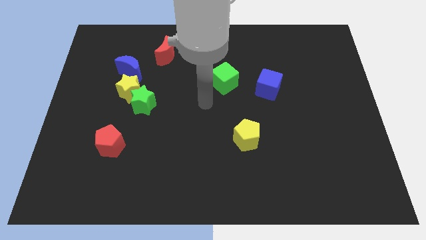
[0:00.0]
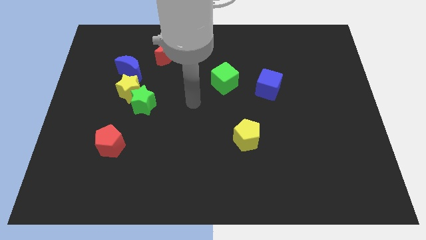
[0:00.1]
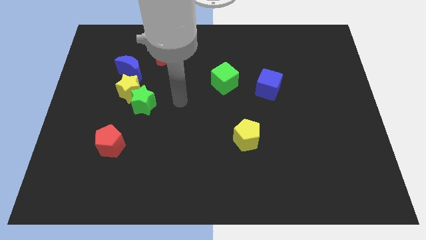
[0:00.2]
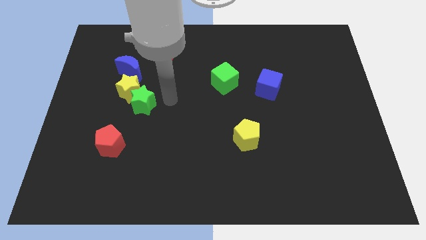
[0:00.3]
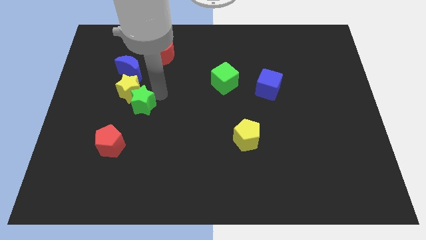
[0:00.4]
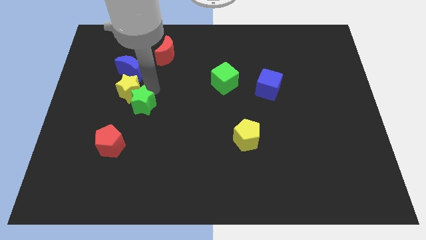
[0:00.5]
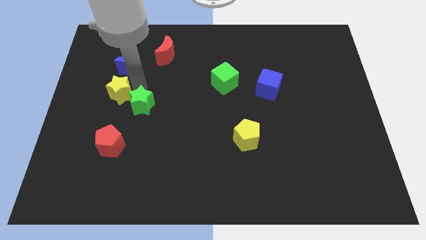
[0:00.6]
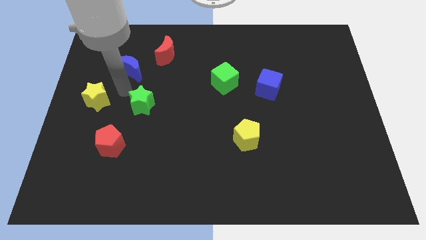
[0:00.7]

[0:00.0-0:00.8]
separate the green star from the yellow star

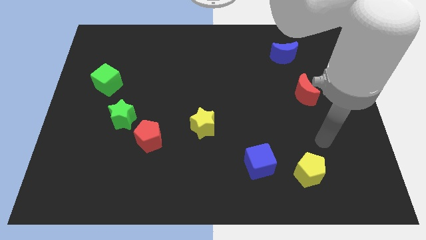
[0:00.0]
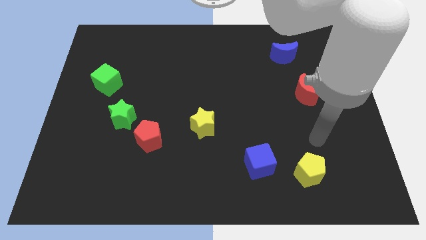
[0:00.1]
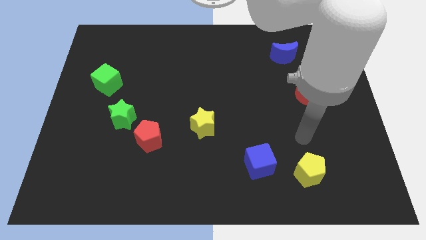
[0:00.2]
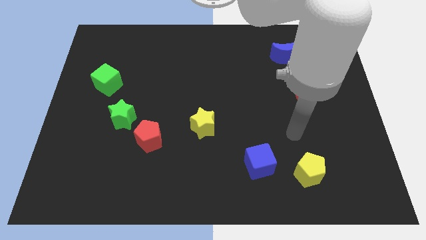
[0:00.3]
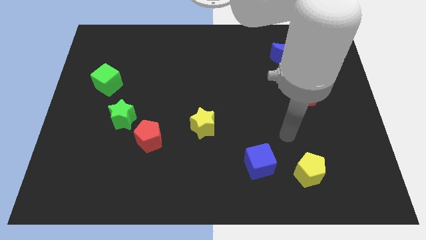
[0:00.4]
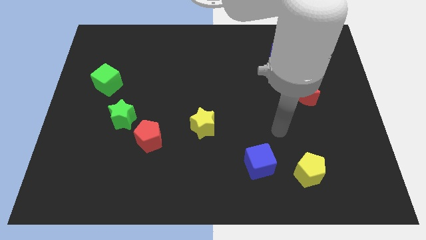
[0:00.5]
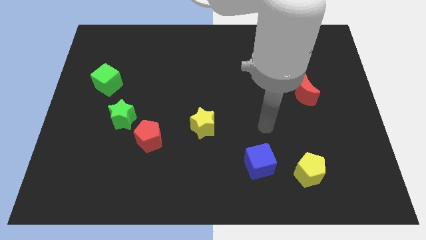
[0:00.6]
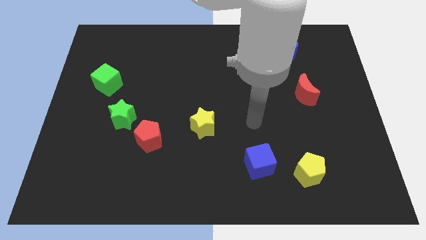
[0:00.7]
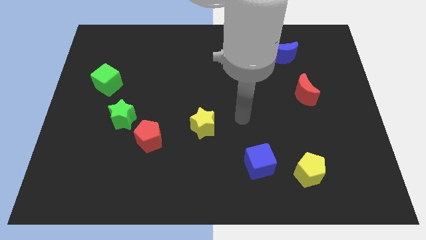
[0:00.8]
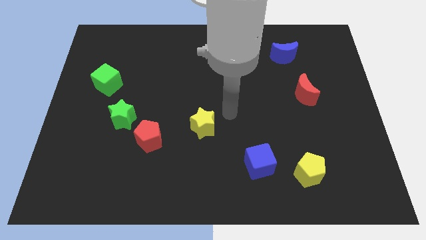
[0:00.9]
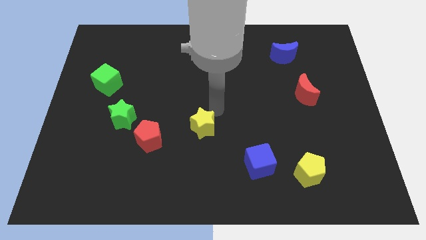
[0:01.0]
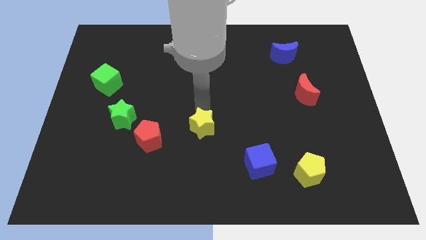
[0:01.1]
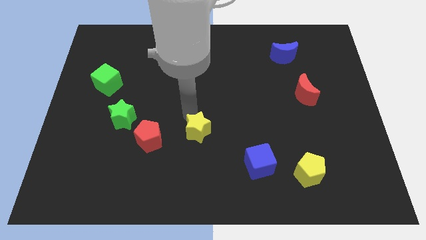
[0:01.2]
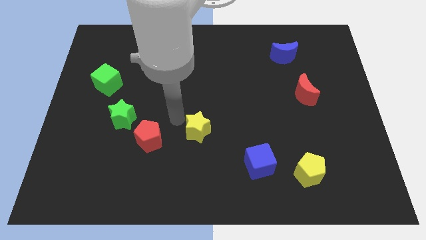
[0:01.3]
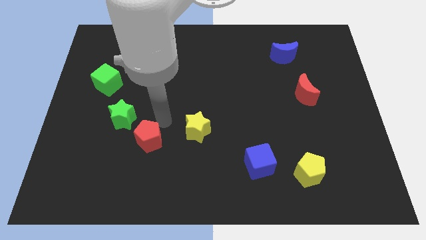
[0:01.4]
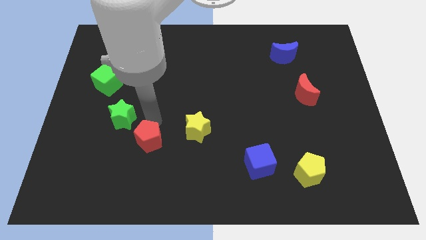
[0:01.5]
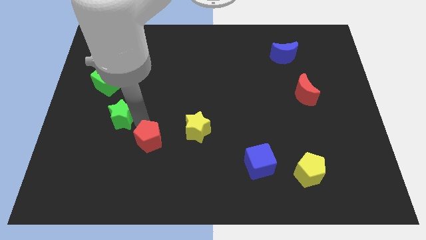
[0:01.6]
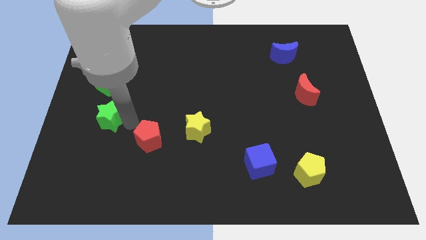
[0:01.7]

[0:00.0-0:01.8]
move the red pentagon away from the green star

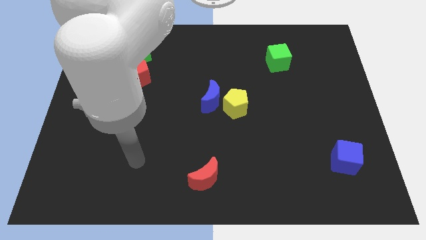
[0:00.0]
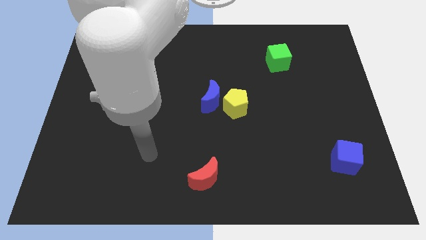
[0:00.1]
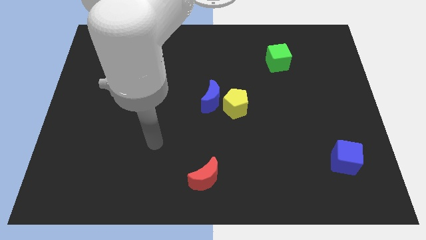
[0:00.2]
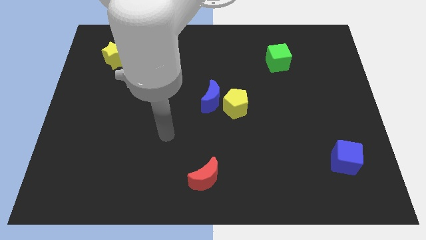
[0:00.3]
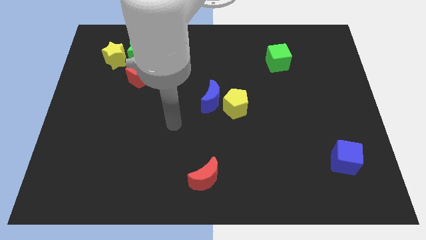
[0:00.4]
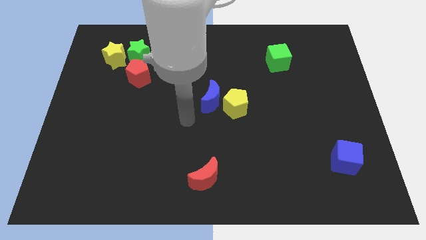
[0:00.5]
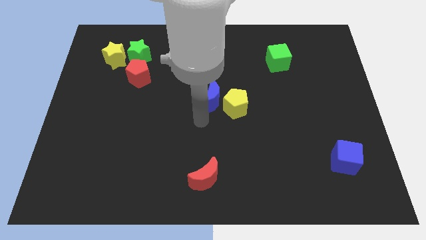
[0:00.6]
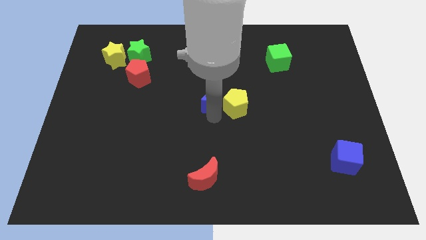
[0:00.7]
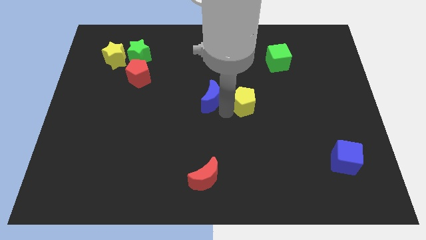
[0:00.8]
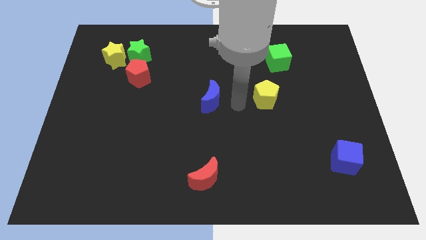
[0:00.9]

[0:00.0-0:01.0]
separate the blue moon from the yellow pentagon

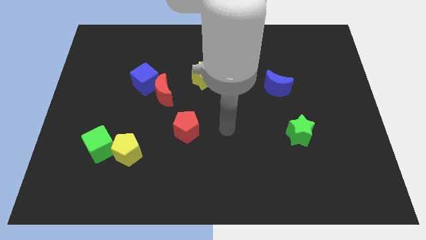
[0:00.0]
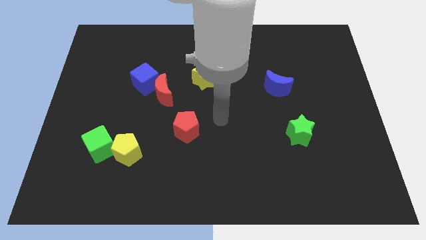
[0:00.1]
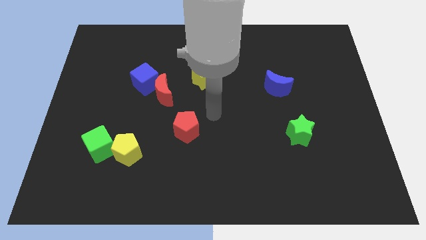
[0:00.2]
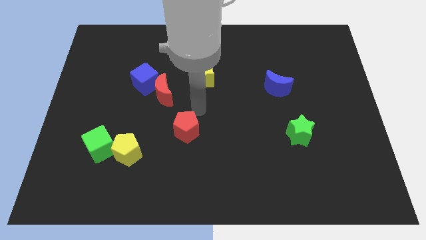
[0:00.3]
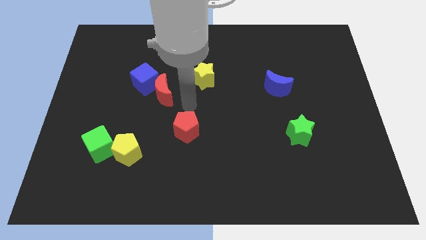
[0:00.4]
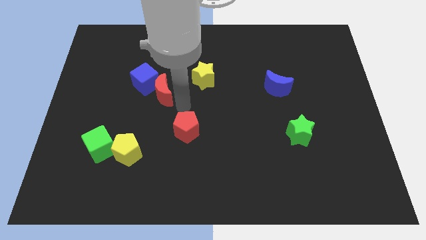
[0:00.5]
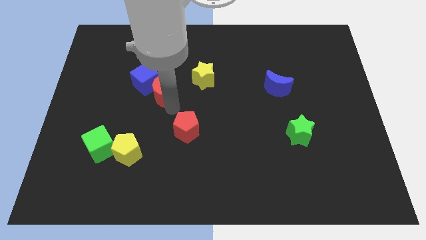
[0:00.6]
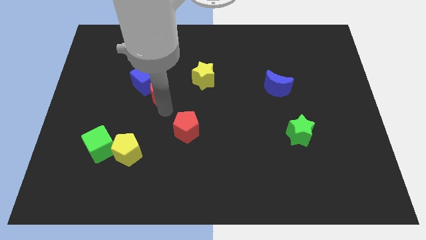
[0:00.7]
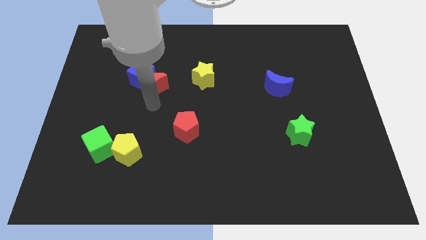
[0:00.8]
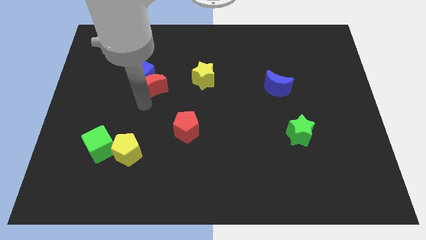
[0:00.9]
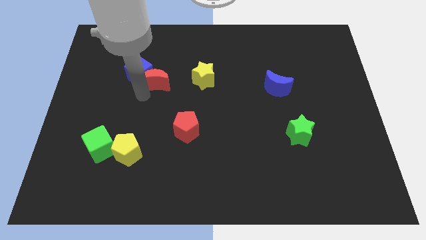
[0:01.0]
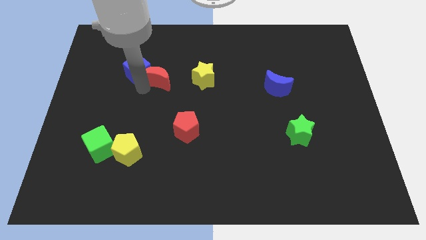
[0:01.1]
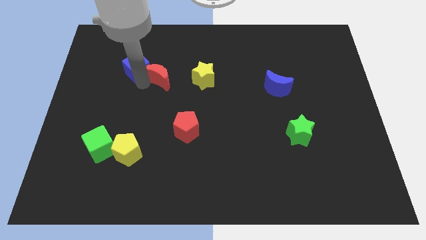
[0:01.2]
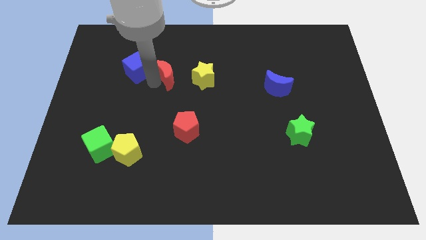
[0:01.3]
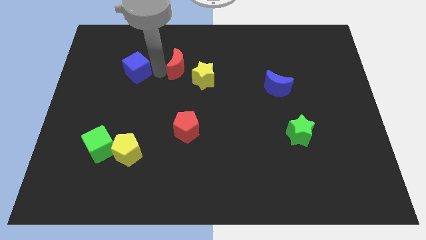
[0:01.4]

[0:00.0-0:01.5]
move the red moon away from the blue cube

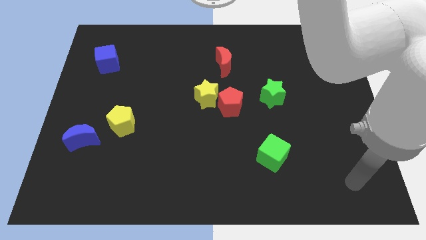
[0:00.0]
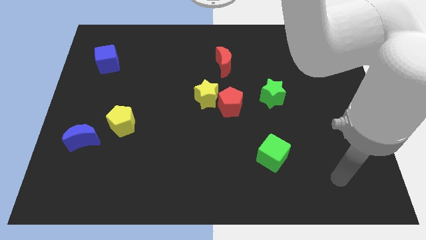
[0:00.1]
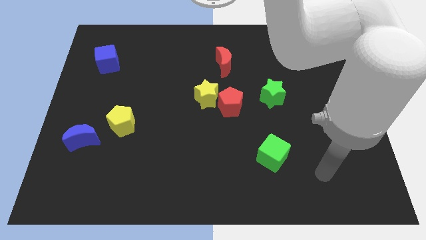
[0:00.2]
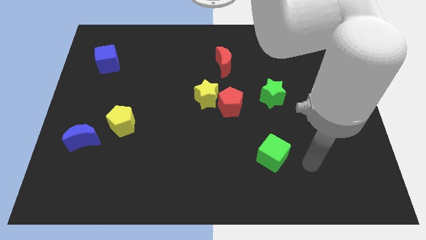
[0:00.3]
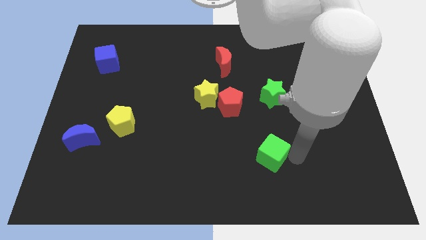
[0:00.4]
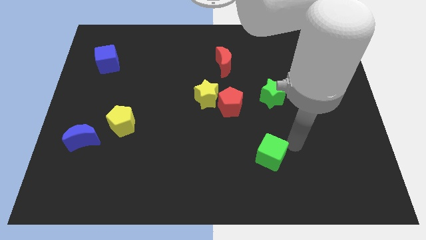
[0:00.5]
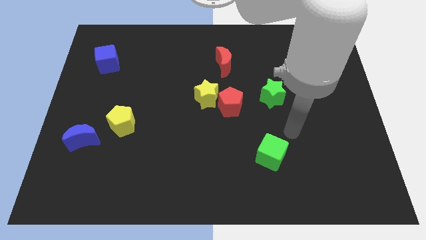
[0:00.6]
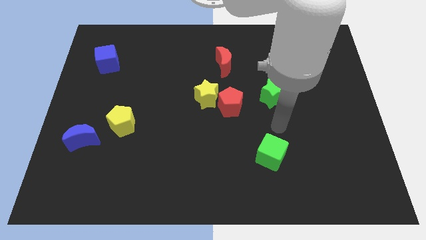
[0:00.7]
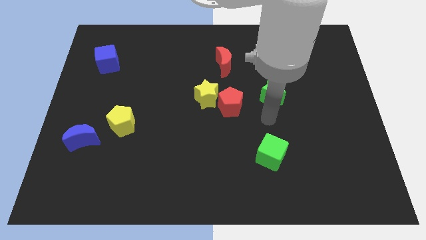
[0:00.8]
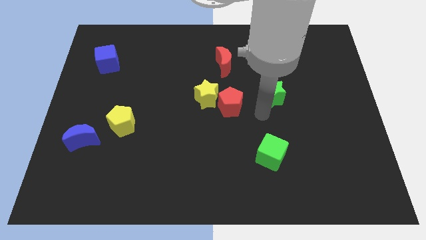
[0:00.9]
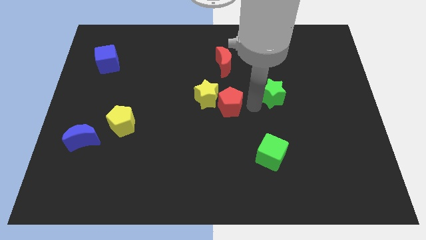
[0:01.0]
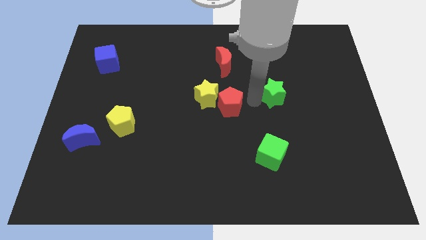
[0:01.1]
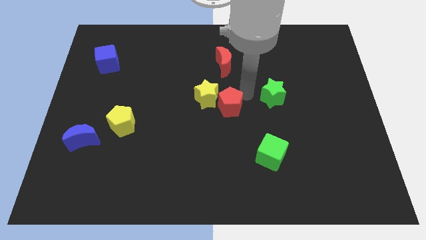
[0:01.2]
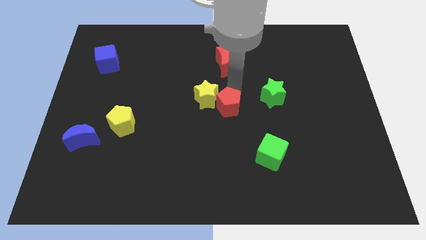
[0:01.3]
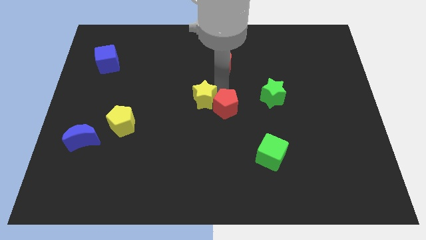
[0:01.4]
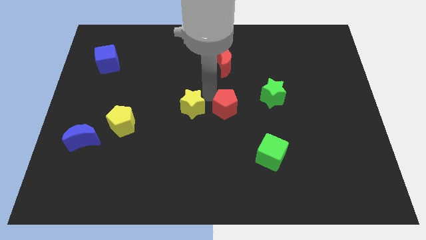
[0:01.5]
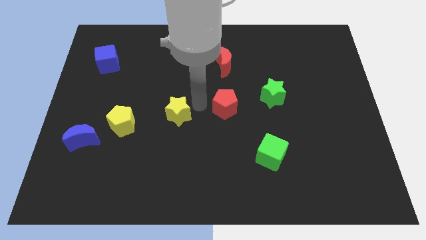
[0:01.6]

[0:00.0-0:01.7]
separate the red pentagon from the yellow star

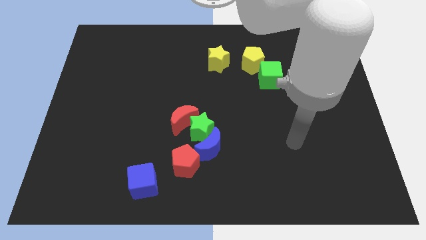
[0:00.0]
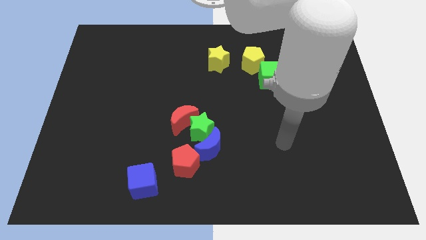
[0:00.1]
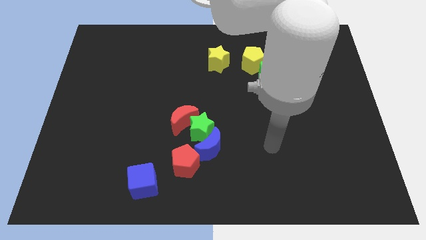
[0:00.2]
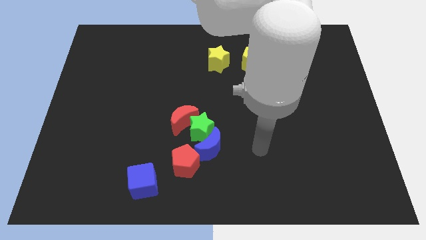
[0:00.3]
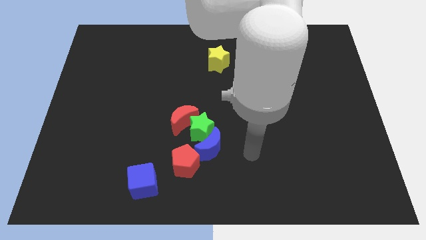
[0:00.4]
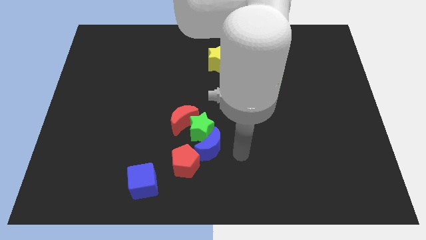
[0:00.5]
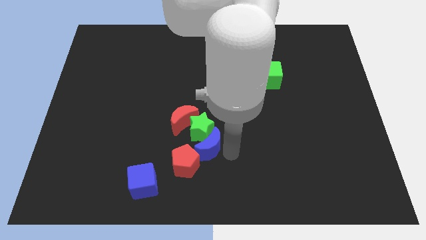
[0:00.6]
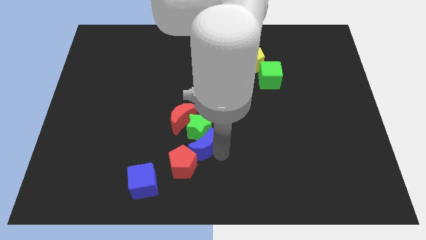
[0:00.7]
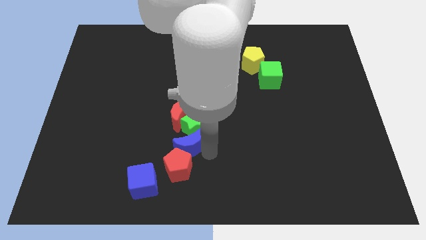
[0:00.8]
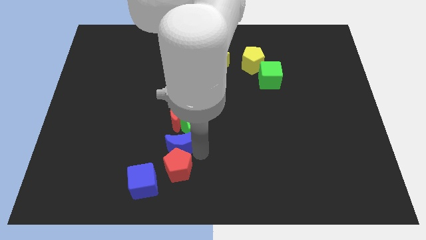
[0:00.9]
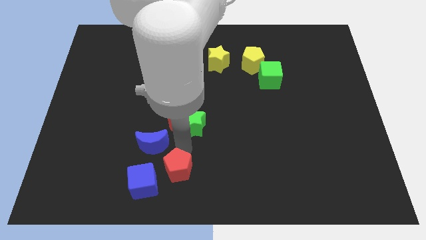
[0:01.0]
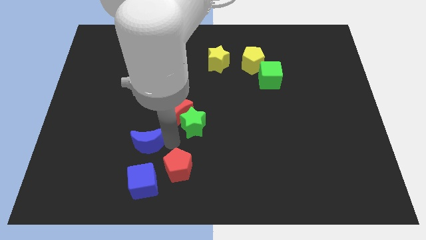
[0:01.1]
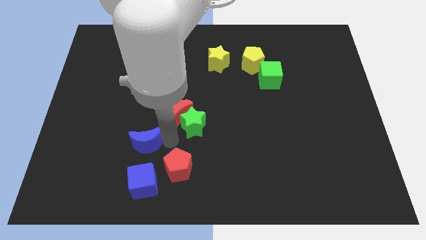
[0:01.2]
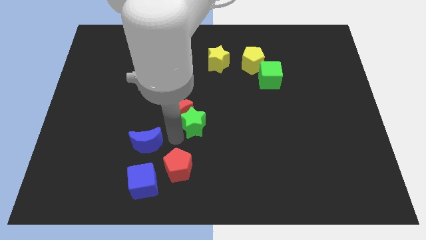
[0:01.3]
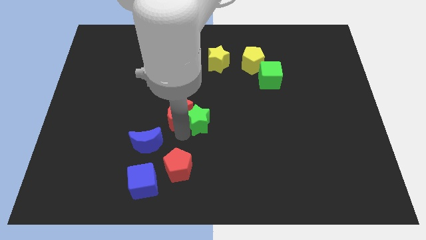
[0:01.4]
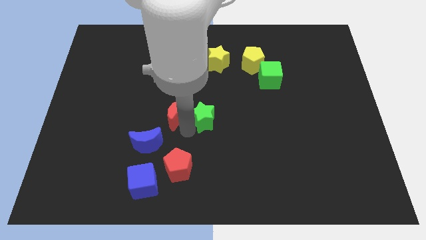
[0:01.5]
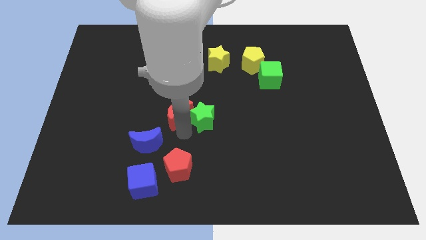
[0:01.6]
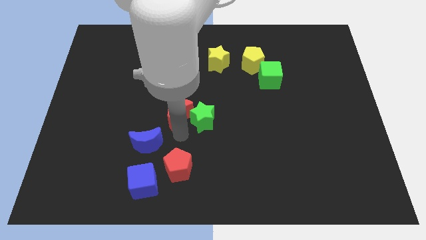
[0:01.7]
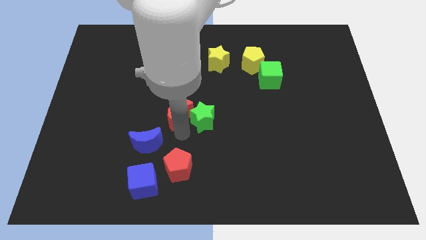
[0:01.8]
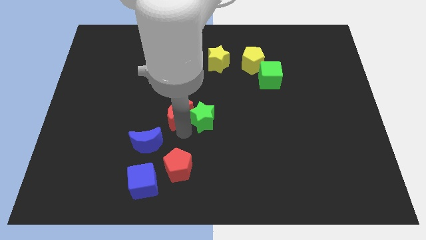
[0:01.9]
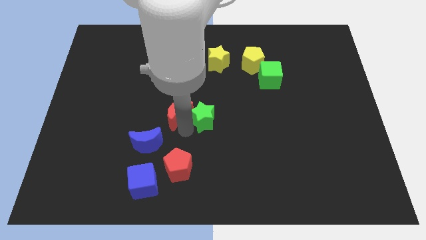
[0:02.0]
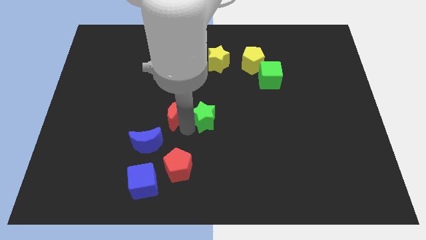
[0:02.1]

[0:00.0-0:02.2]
move the green star away from the group of blocks

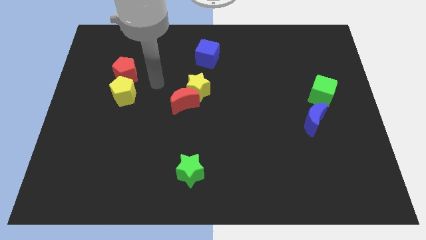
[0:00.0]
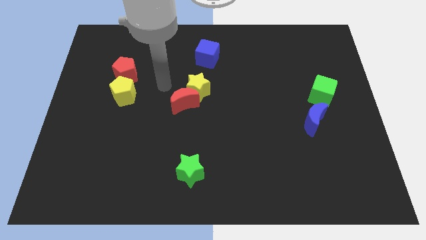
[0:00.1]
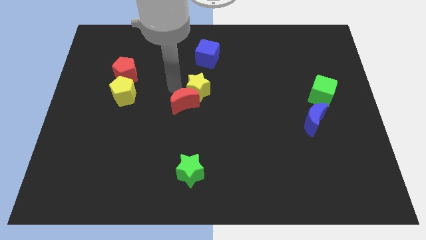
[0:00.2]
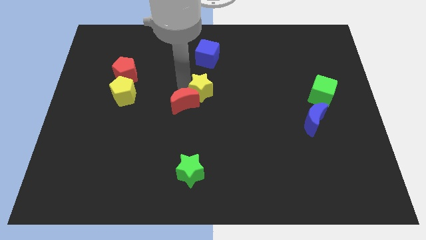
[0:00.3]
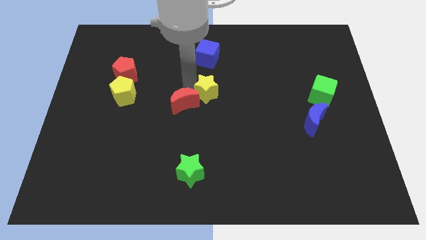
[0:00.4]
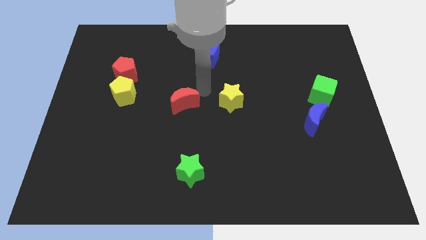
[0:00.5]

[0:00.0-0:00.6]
pull the red moon apart from the yellow star
